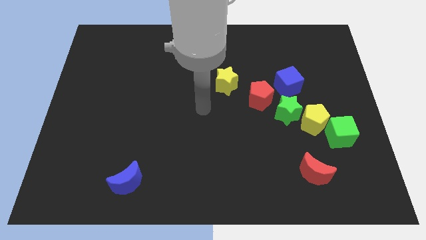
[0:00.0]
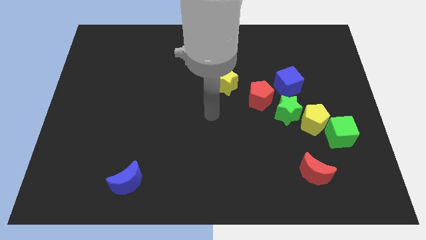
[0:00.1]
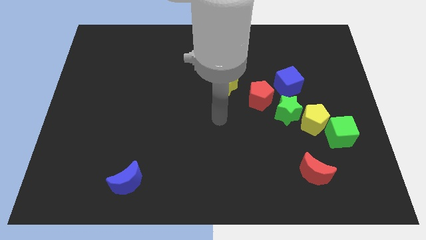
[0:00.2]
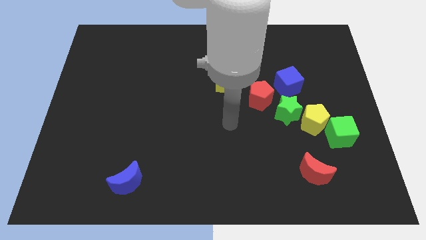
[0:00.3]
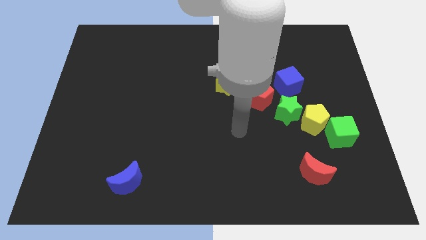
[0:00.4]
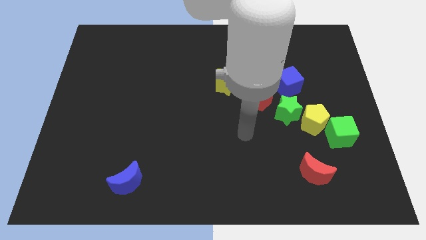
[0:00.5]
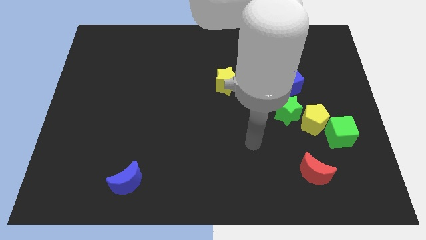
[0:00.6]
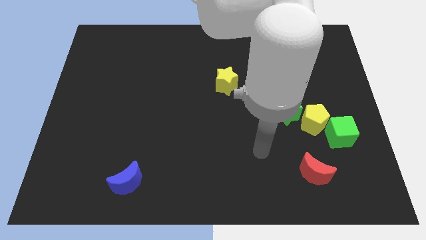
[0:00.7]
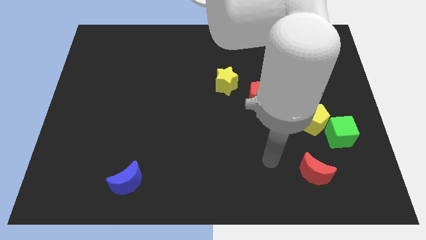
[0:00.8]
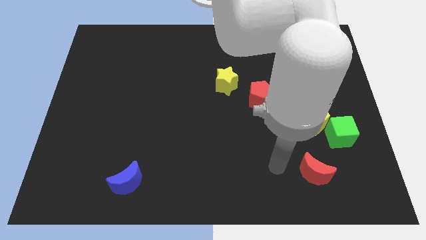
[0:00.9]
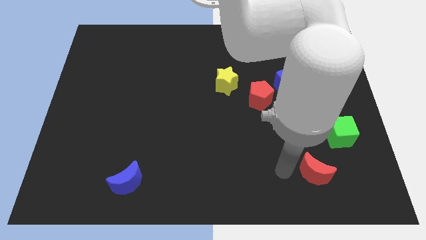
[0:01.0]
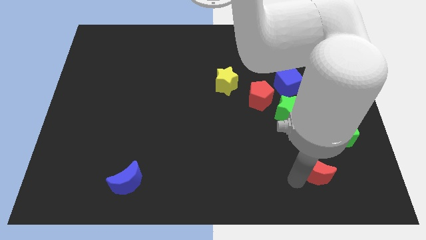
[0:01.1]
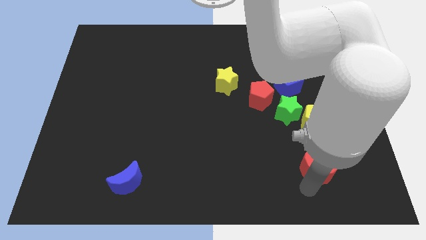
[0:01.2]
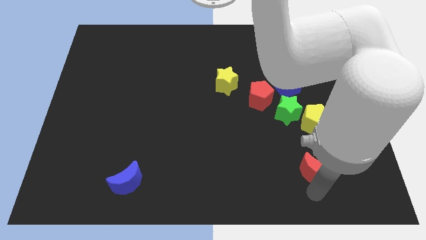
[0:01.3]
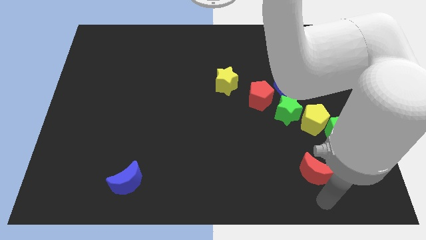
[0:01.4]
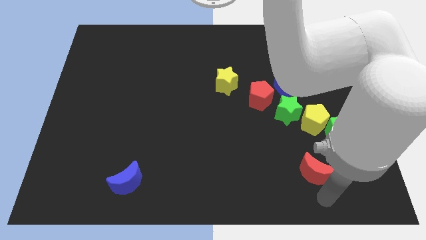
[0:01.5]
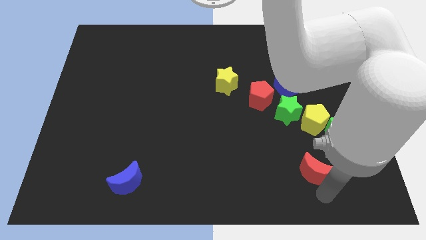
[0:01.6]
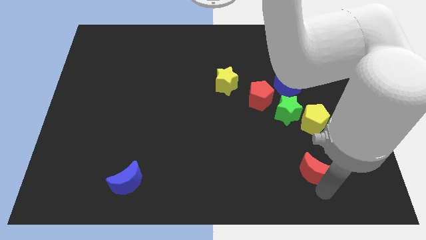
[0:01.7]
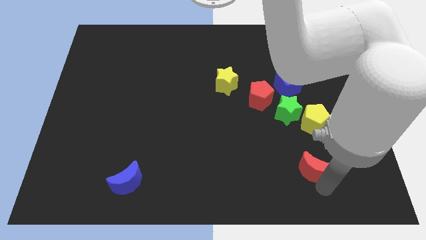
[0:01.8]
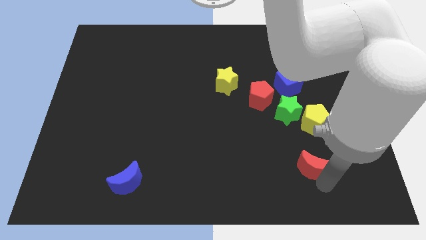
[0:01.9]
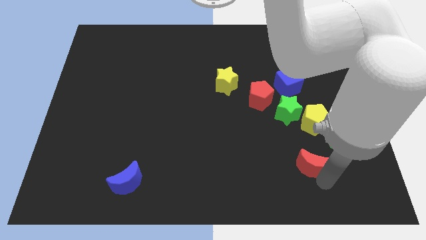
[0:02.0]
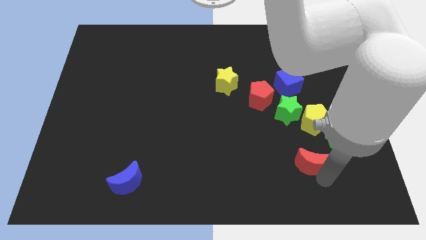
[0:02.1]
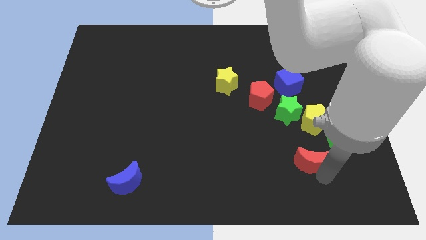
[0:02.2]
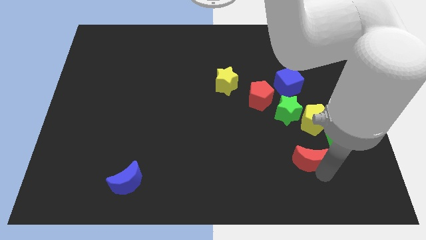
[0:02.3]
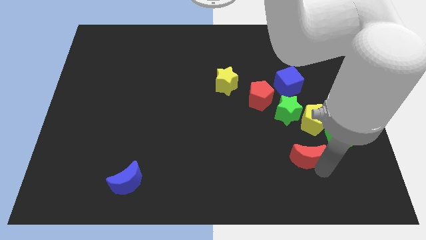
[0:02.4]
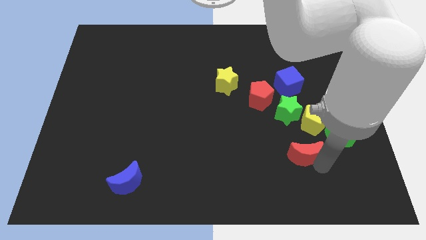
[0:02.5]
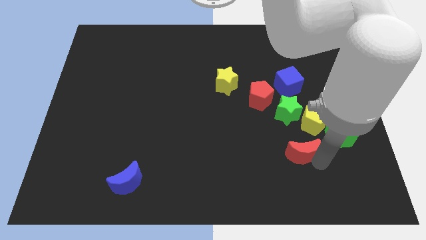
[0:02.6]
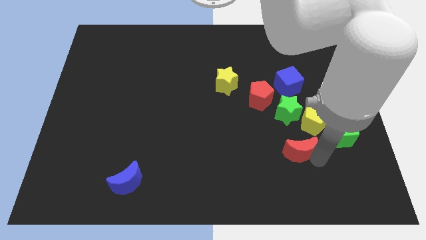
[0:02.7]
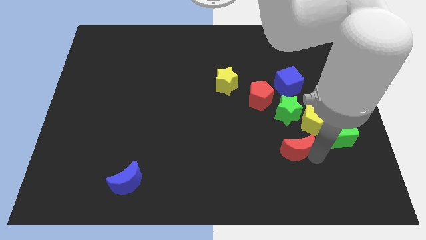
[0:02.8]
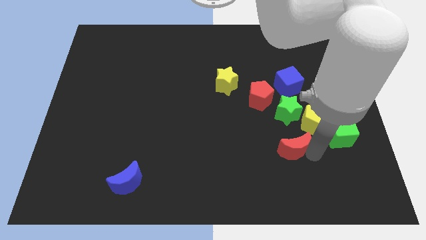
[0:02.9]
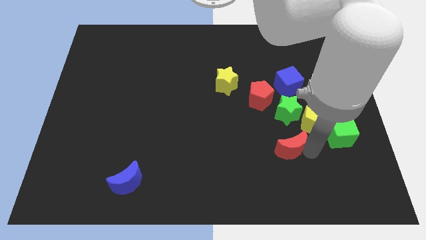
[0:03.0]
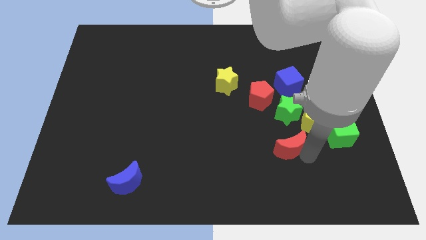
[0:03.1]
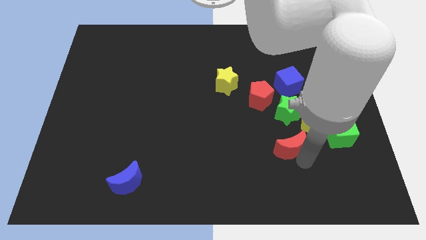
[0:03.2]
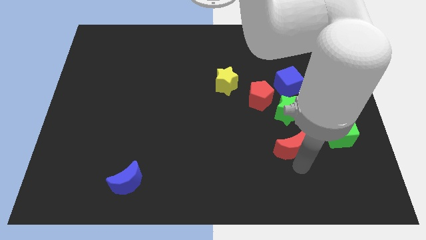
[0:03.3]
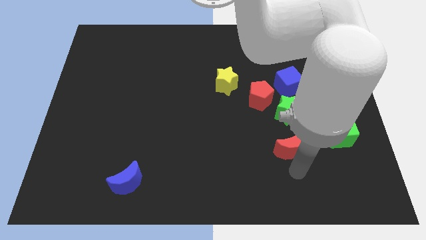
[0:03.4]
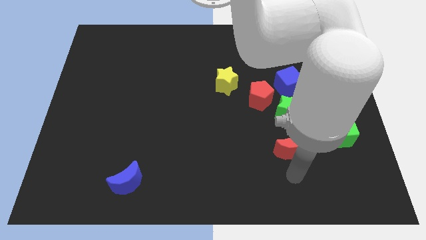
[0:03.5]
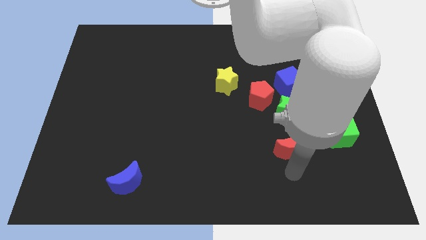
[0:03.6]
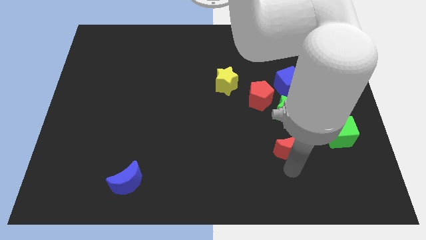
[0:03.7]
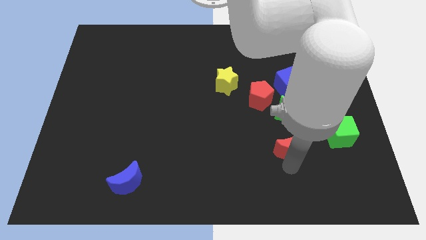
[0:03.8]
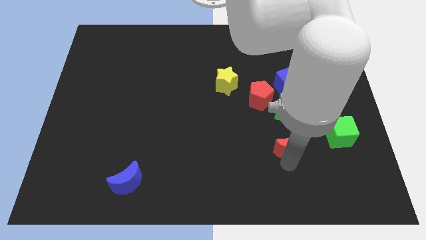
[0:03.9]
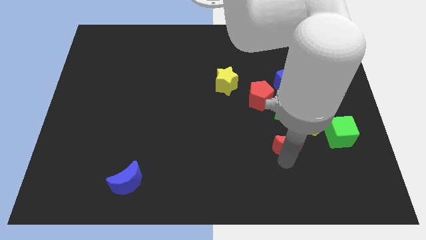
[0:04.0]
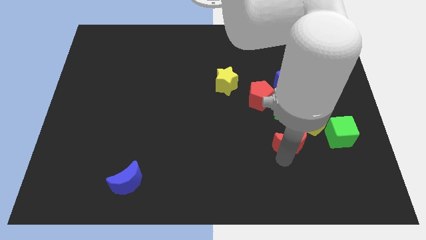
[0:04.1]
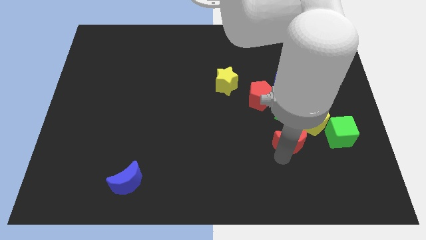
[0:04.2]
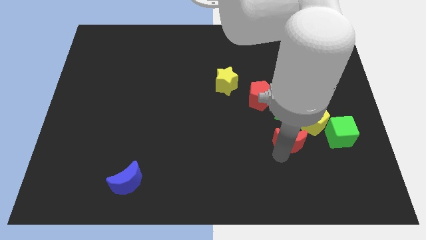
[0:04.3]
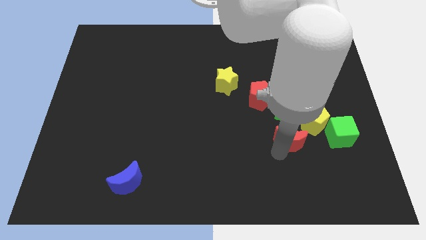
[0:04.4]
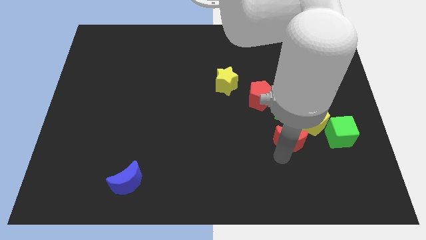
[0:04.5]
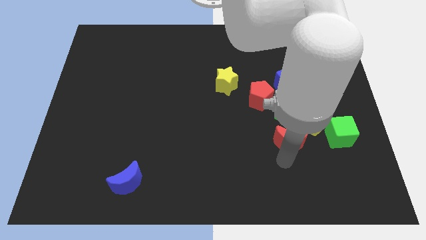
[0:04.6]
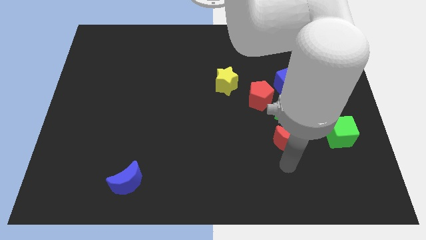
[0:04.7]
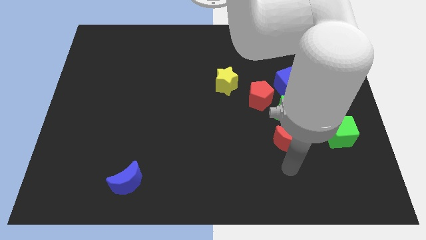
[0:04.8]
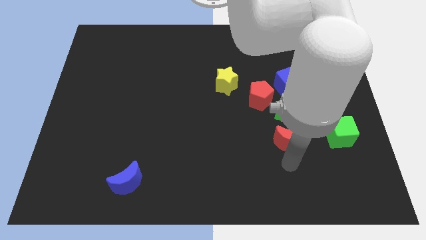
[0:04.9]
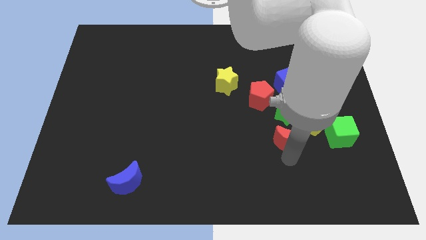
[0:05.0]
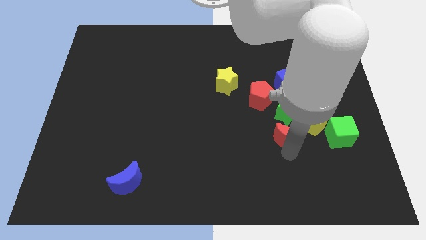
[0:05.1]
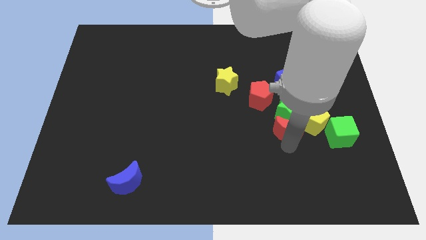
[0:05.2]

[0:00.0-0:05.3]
push the red moon close to the green star
